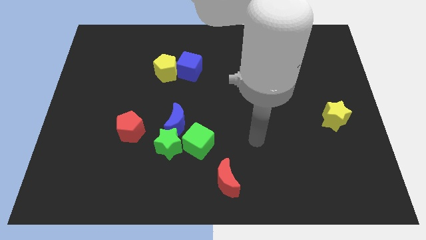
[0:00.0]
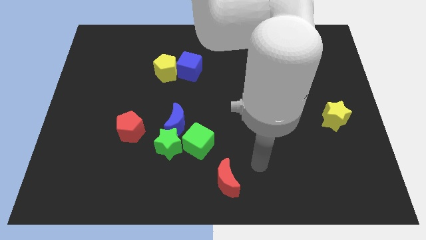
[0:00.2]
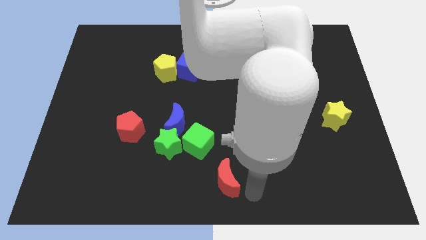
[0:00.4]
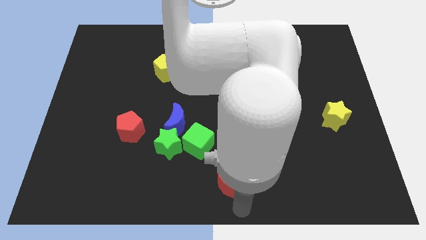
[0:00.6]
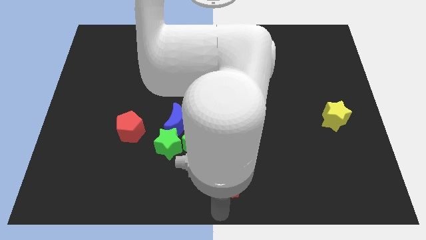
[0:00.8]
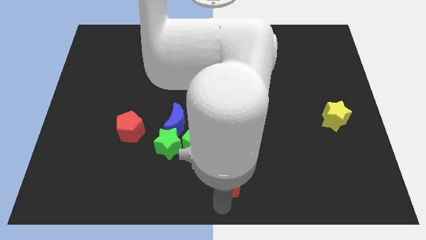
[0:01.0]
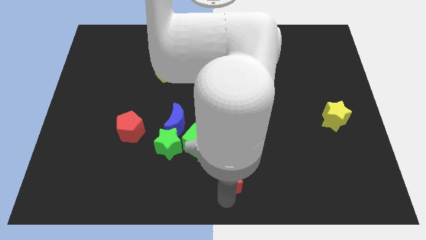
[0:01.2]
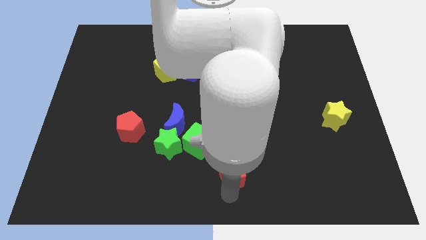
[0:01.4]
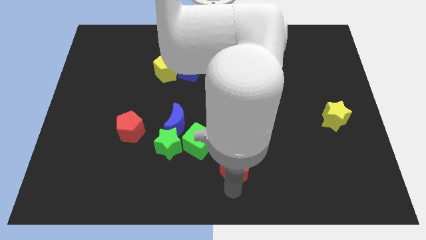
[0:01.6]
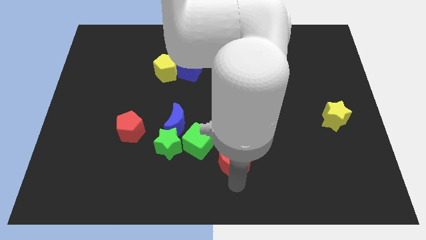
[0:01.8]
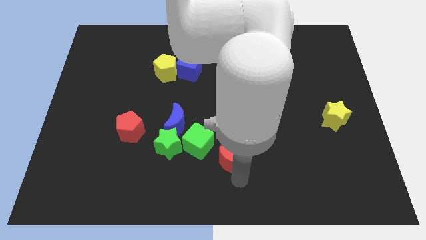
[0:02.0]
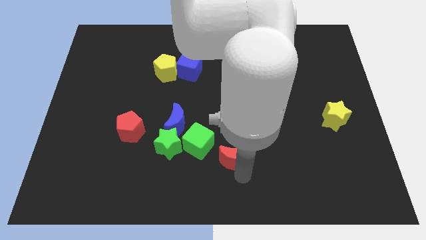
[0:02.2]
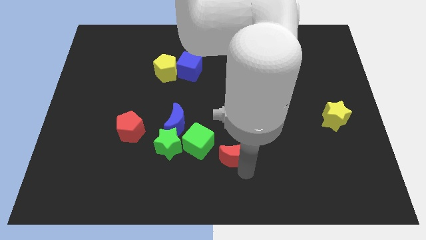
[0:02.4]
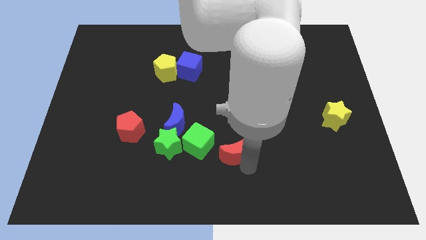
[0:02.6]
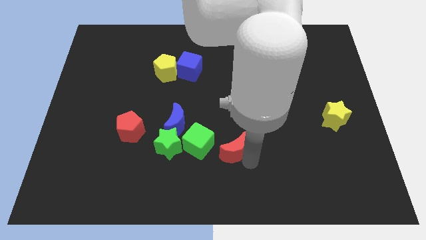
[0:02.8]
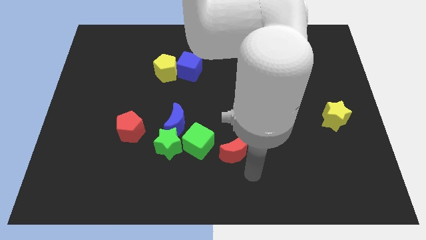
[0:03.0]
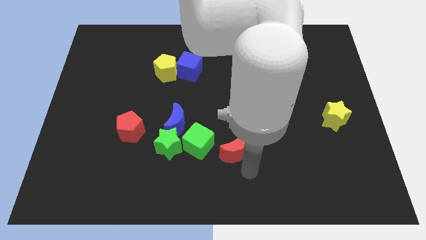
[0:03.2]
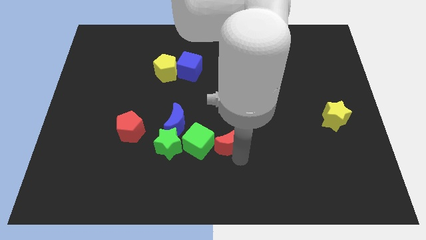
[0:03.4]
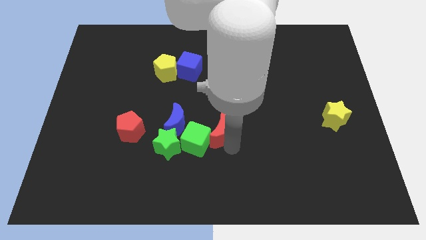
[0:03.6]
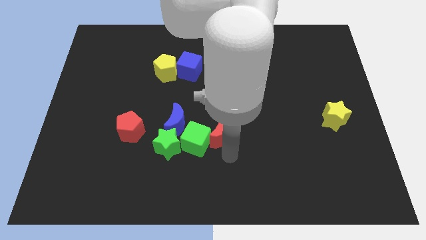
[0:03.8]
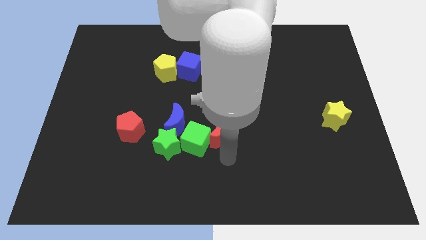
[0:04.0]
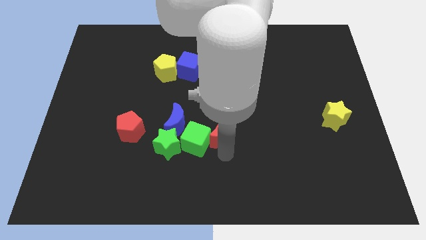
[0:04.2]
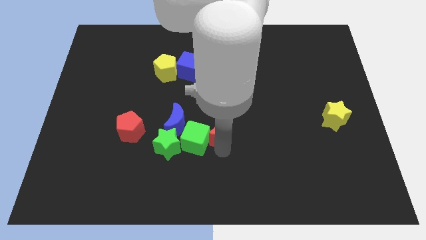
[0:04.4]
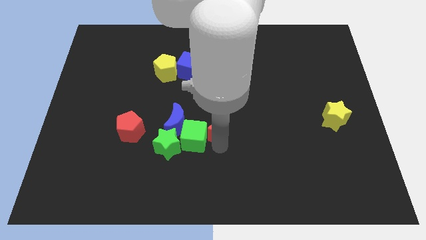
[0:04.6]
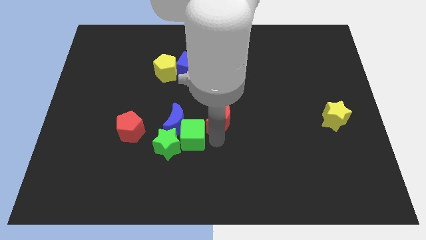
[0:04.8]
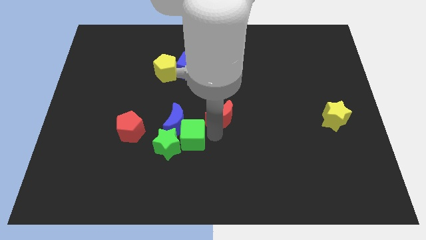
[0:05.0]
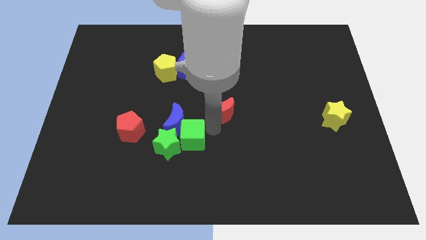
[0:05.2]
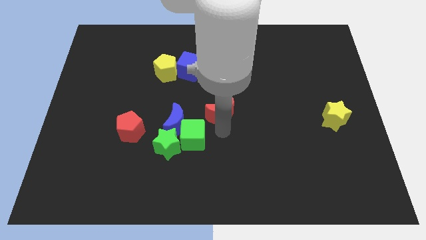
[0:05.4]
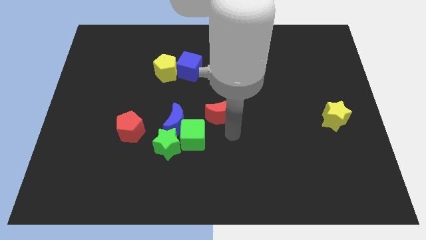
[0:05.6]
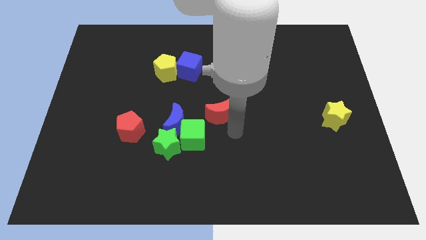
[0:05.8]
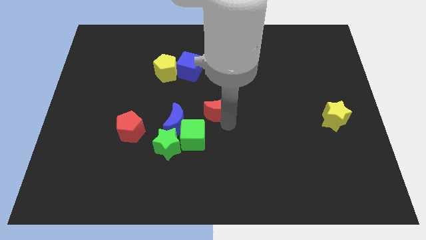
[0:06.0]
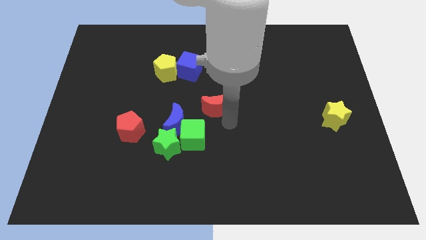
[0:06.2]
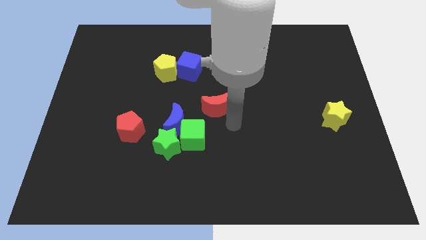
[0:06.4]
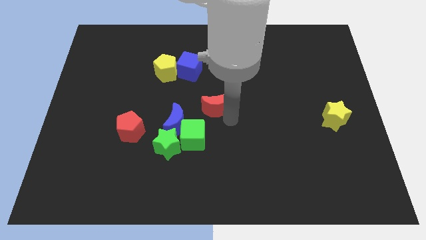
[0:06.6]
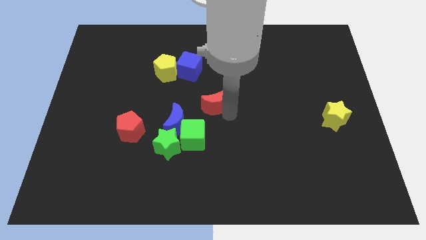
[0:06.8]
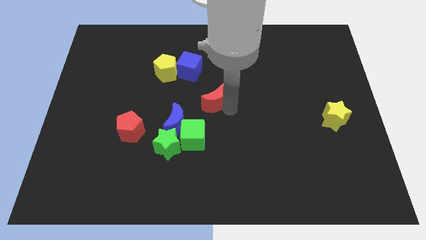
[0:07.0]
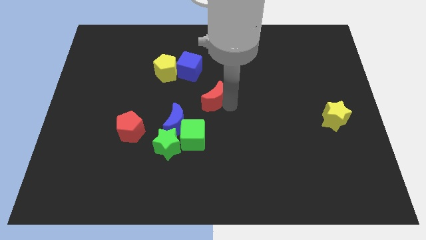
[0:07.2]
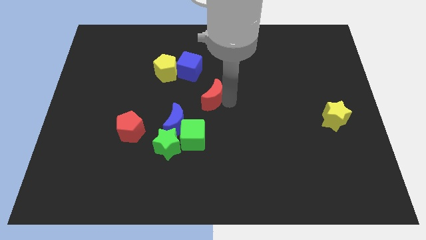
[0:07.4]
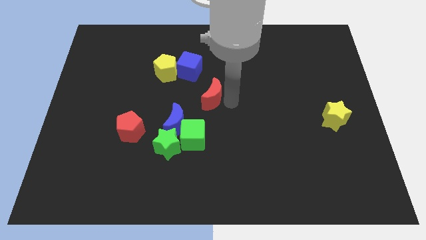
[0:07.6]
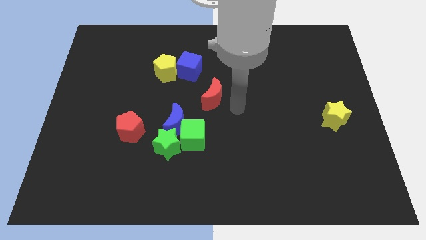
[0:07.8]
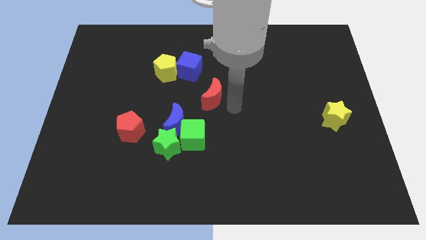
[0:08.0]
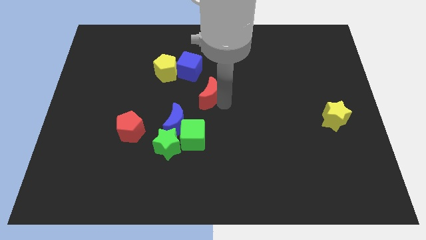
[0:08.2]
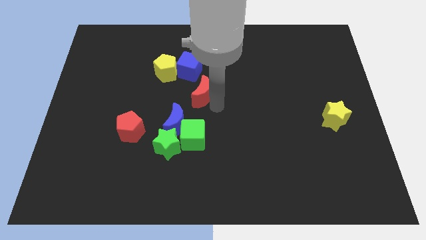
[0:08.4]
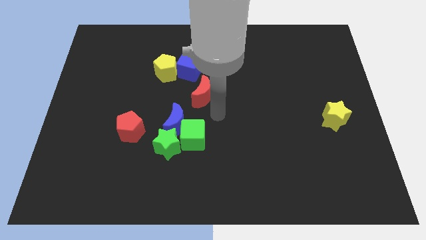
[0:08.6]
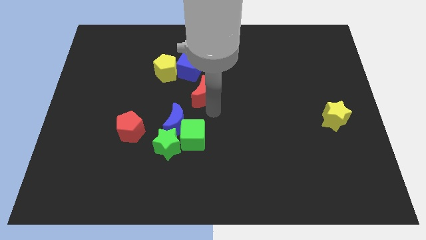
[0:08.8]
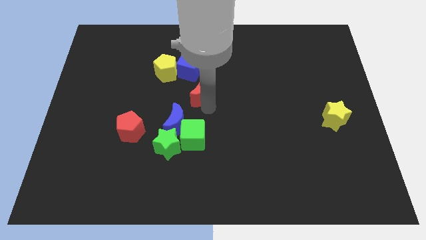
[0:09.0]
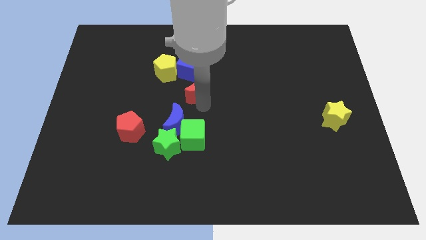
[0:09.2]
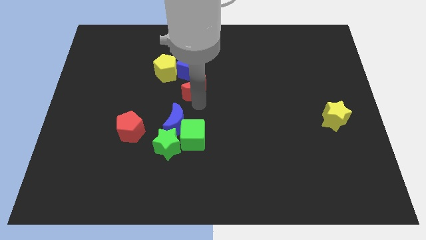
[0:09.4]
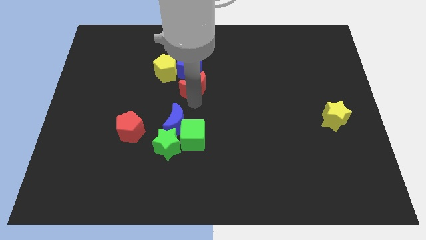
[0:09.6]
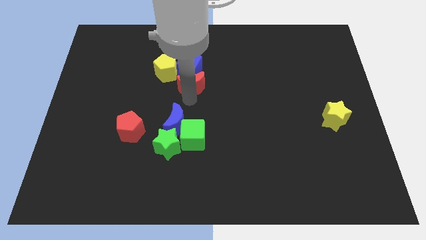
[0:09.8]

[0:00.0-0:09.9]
push the red moon close to the blue cube

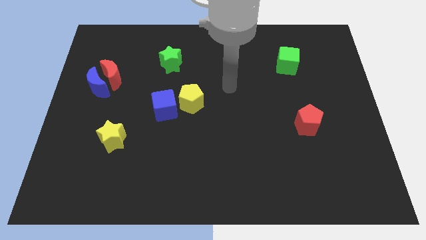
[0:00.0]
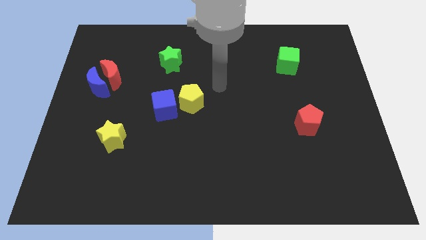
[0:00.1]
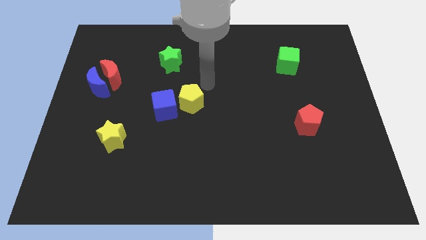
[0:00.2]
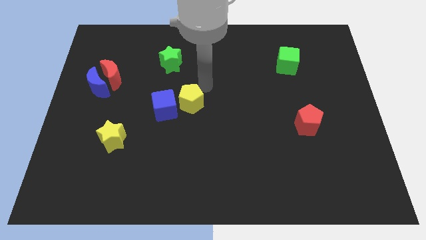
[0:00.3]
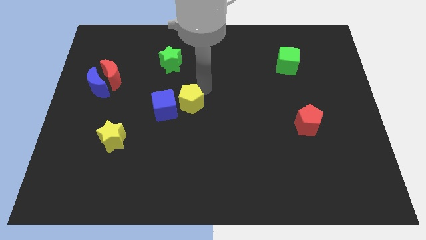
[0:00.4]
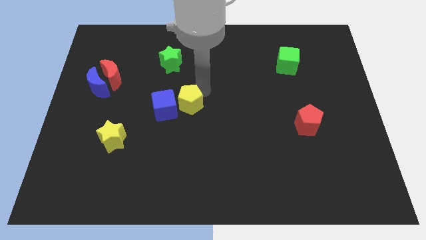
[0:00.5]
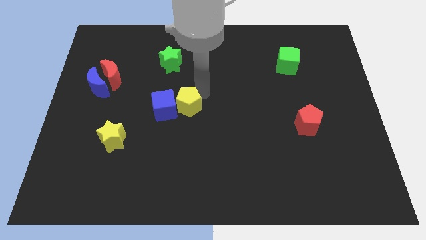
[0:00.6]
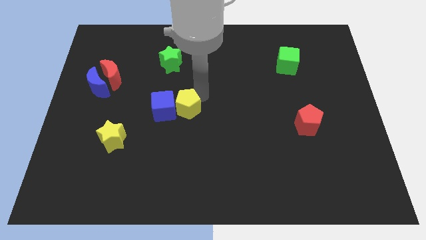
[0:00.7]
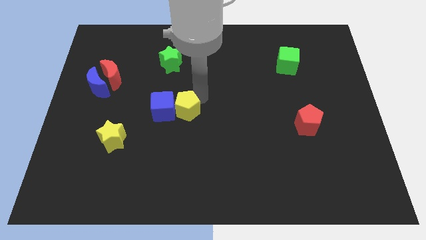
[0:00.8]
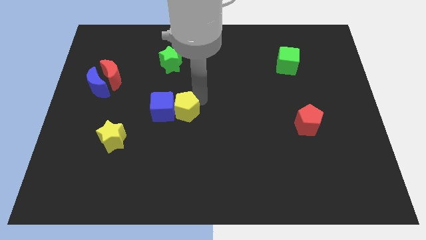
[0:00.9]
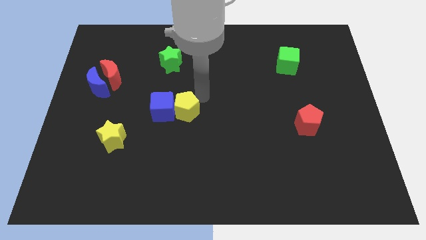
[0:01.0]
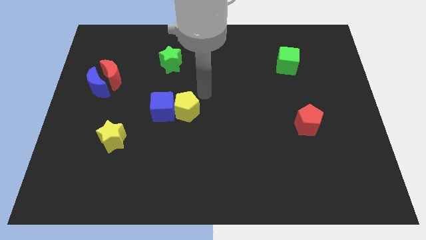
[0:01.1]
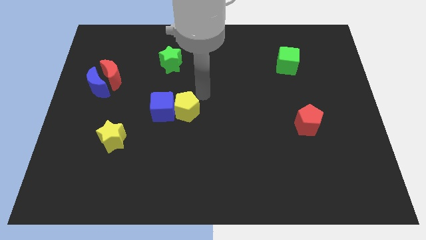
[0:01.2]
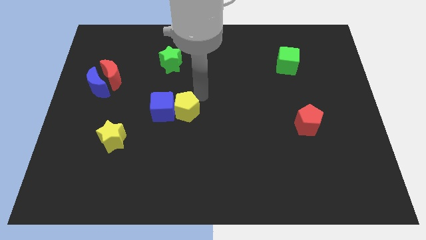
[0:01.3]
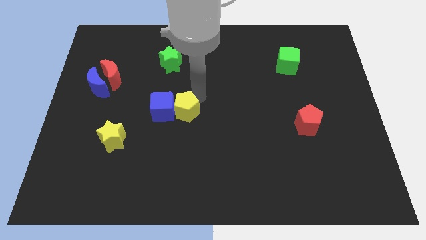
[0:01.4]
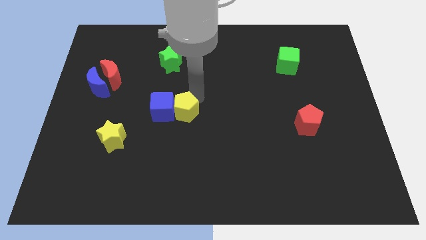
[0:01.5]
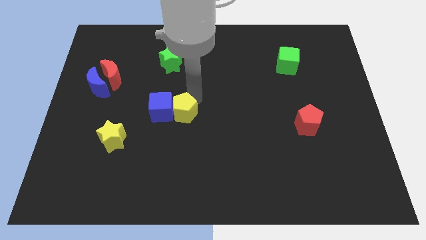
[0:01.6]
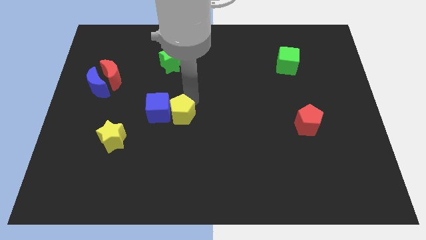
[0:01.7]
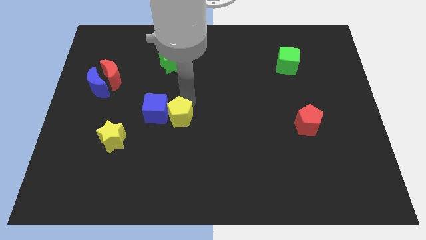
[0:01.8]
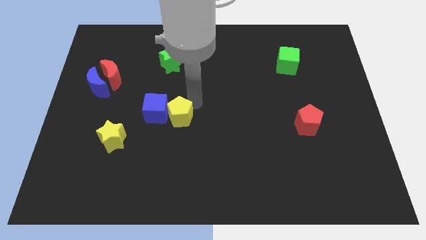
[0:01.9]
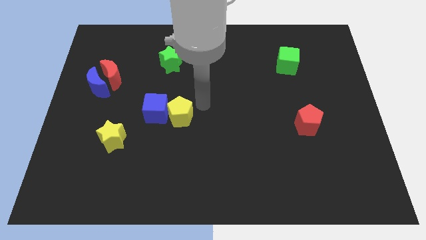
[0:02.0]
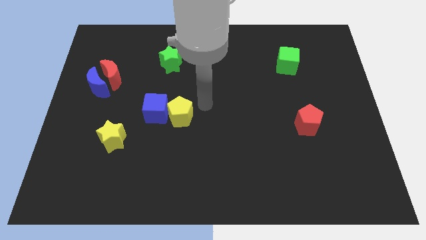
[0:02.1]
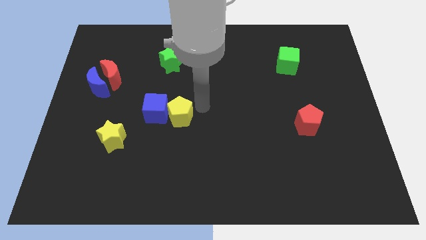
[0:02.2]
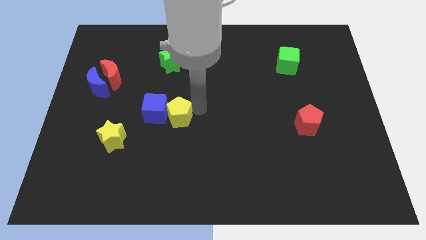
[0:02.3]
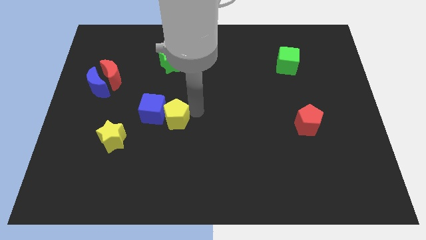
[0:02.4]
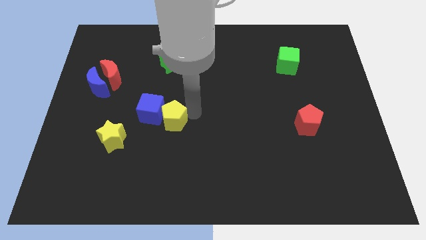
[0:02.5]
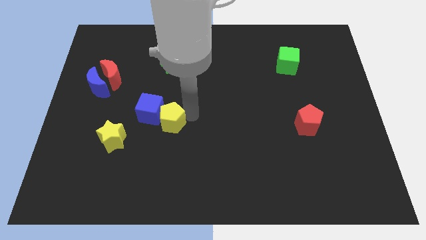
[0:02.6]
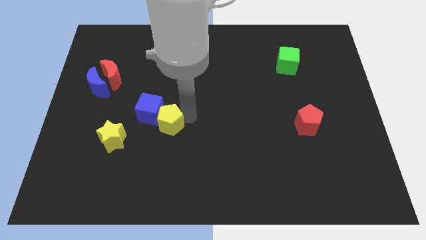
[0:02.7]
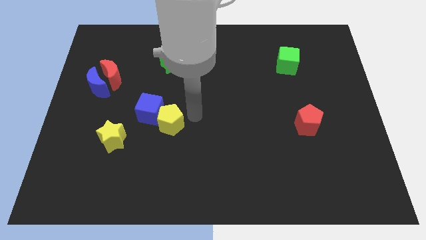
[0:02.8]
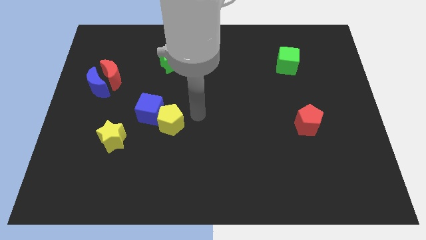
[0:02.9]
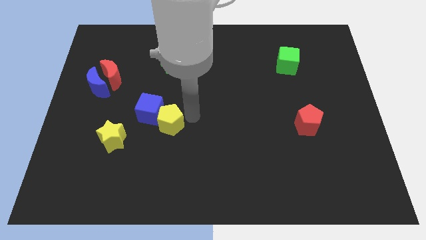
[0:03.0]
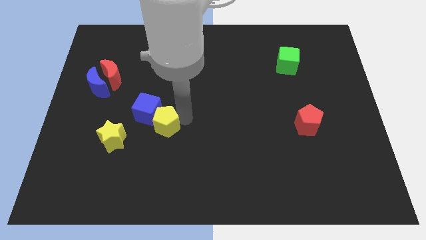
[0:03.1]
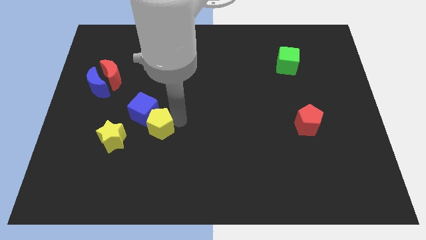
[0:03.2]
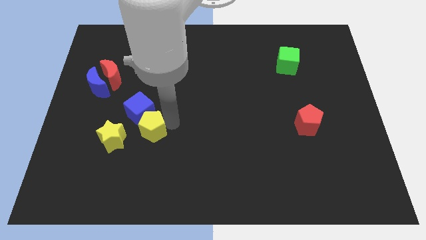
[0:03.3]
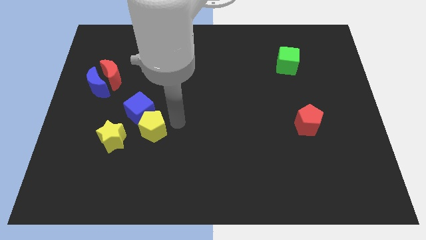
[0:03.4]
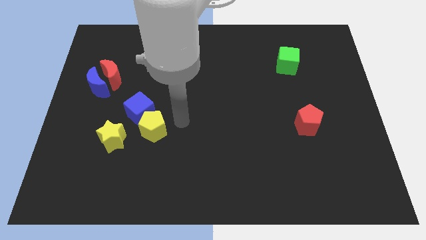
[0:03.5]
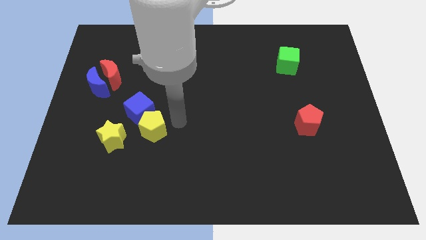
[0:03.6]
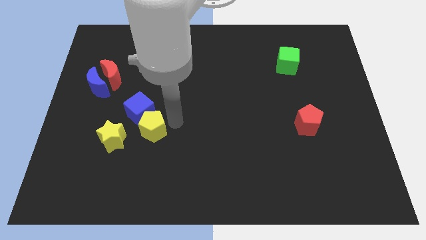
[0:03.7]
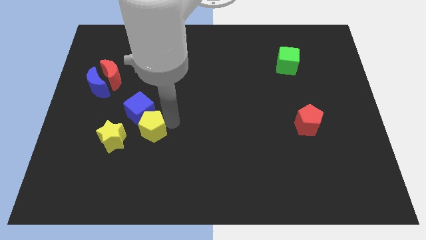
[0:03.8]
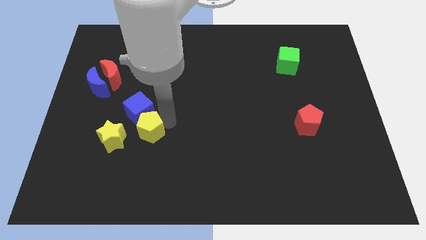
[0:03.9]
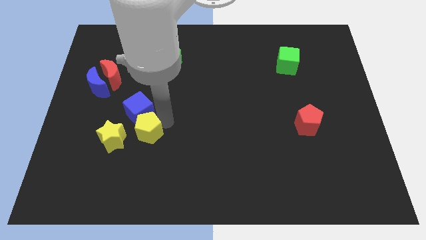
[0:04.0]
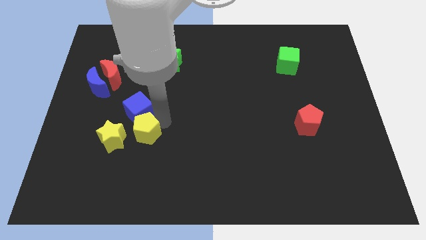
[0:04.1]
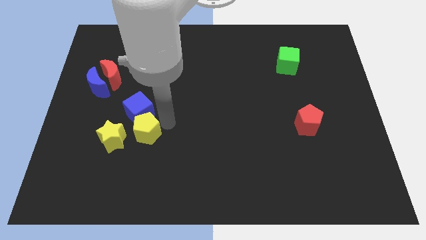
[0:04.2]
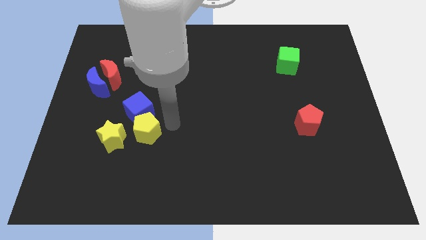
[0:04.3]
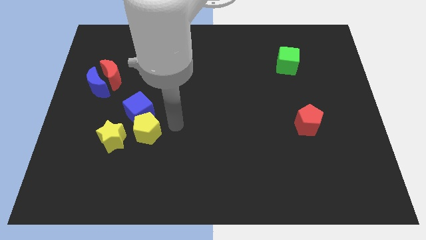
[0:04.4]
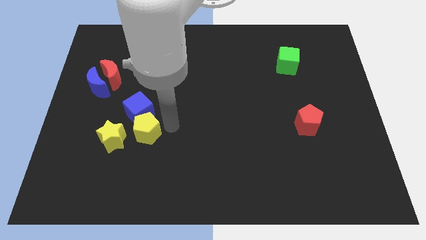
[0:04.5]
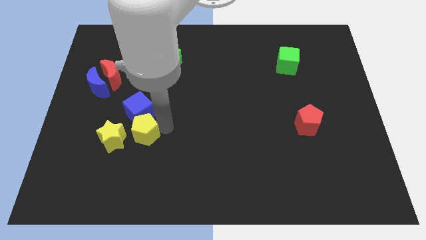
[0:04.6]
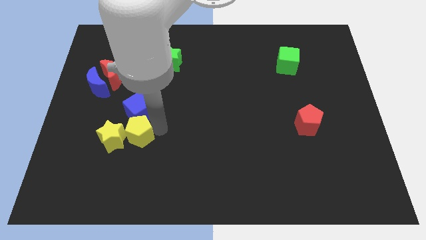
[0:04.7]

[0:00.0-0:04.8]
put the yellow pentagon close to the yellow star
